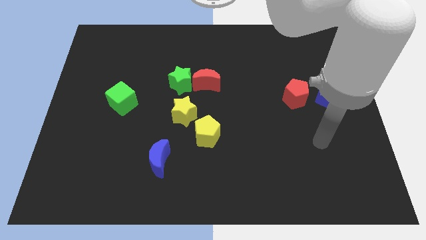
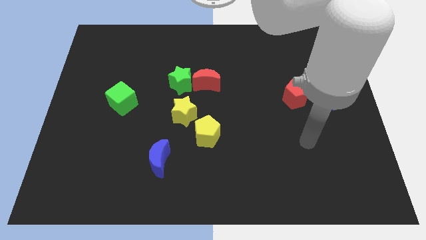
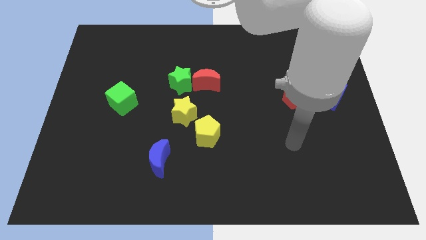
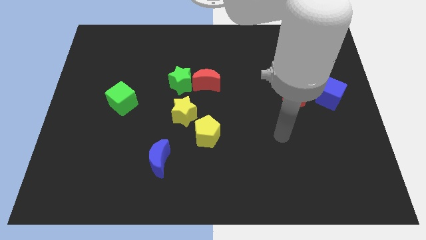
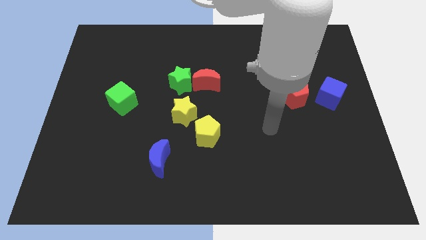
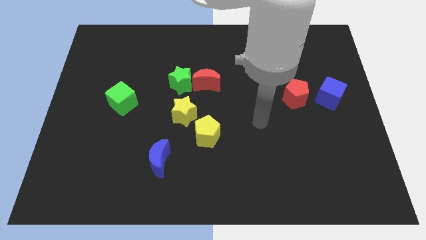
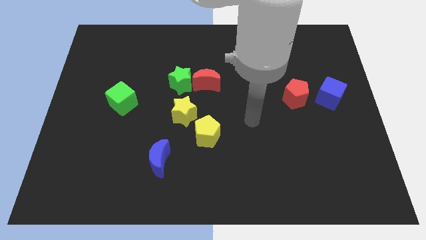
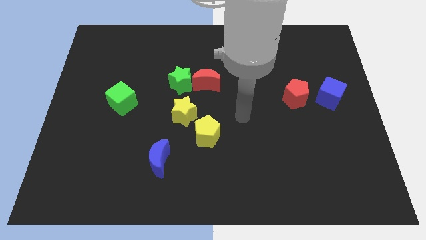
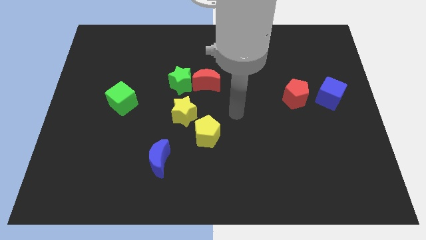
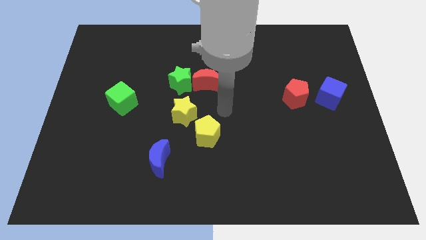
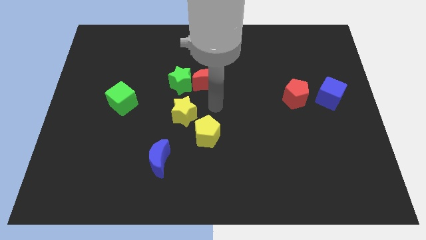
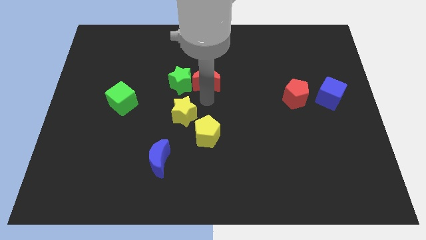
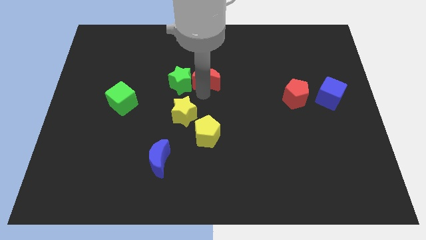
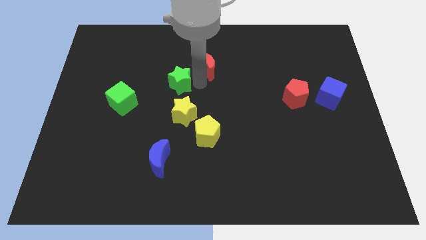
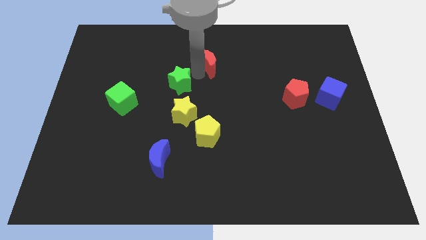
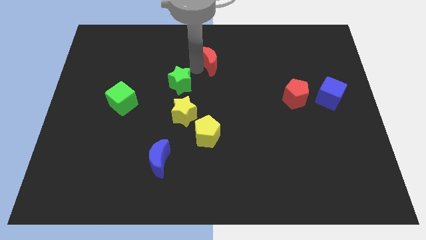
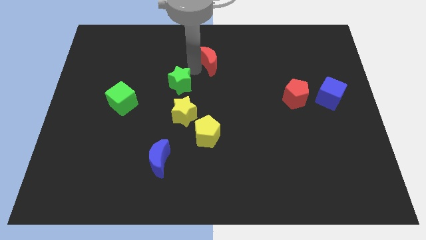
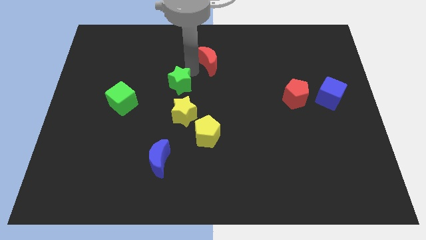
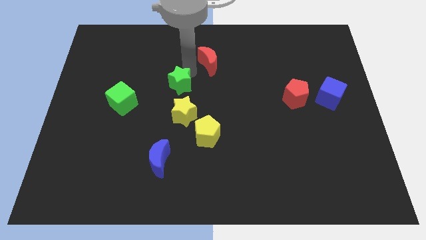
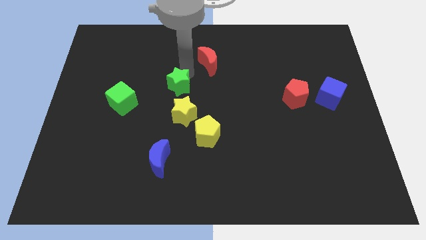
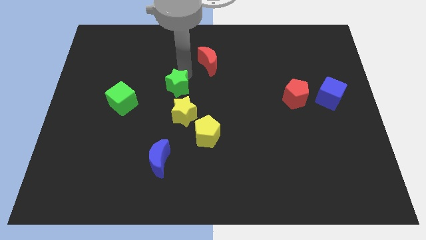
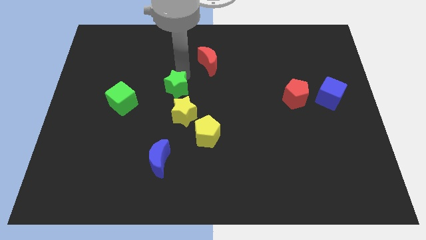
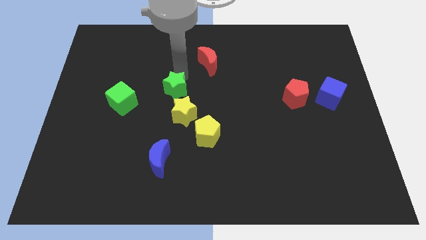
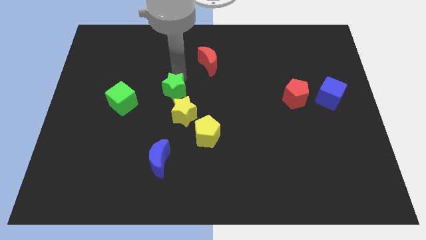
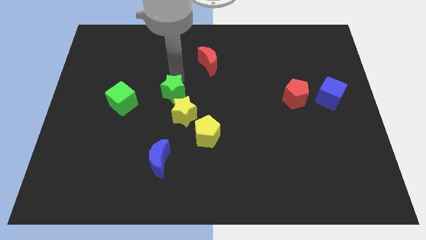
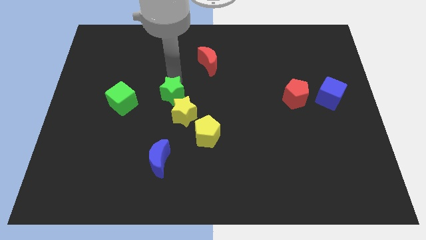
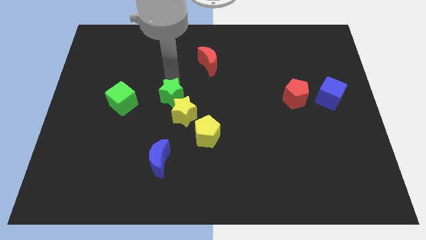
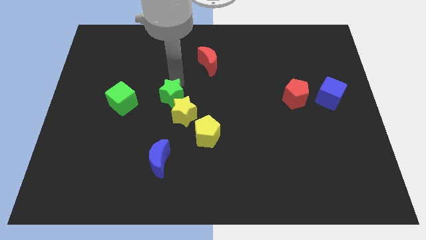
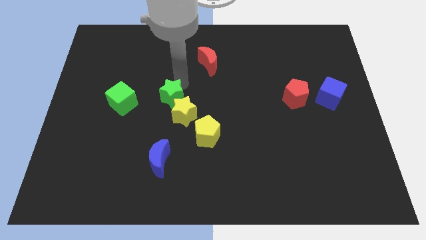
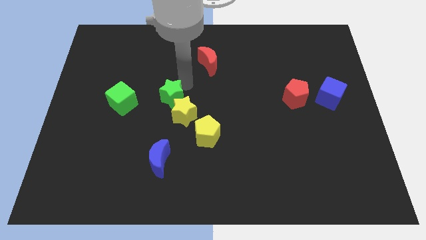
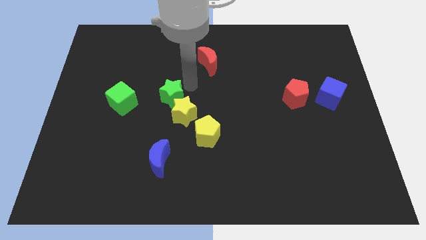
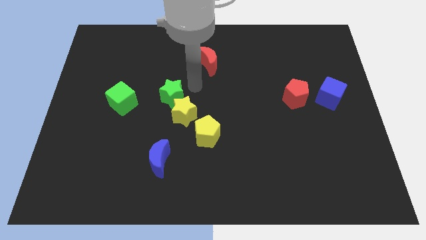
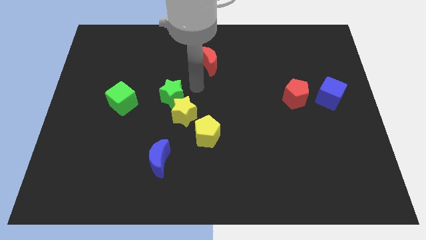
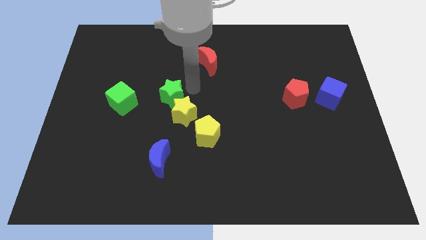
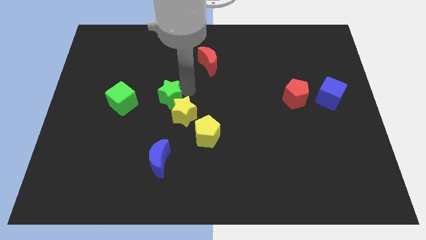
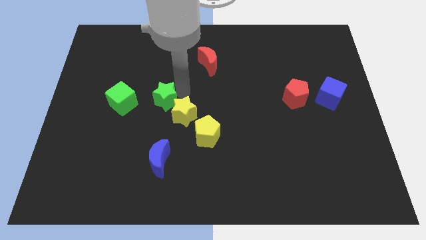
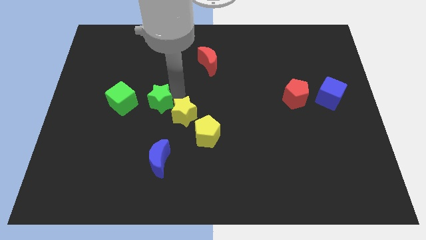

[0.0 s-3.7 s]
slide the green star slightly diagonally downwards and left

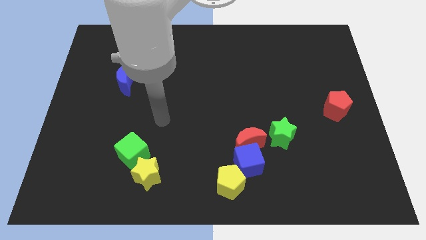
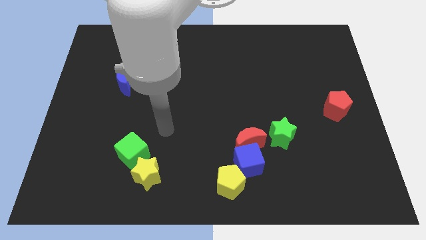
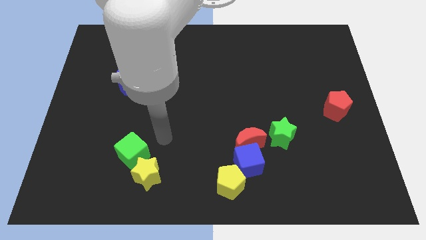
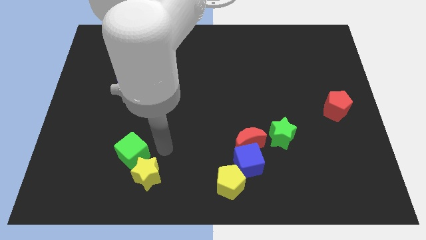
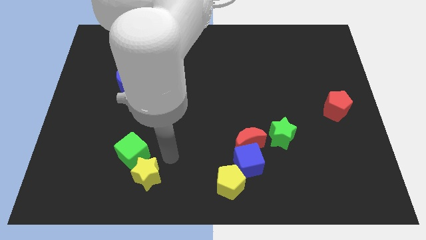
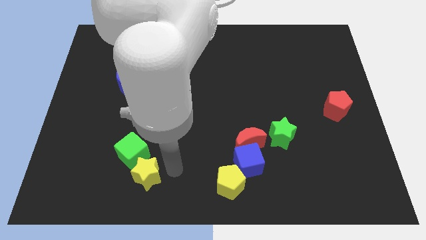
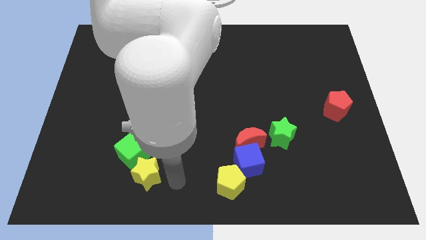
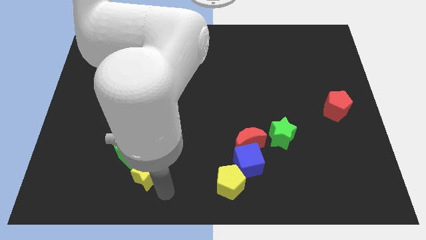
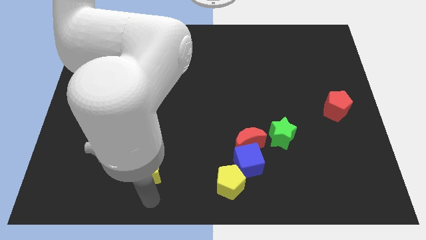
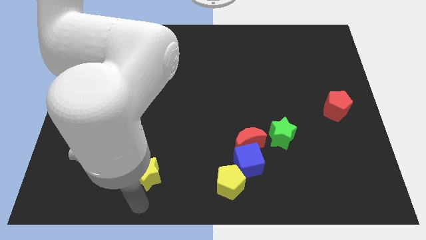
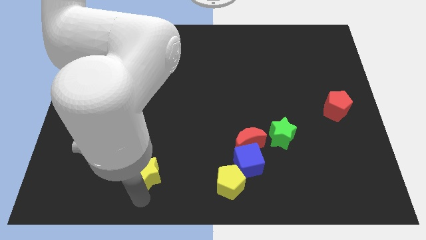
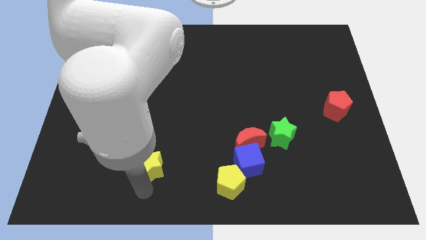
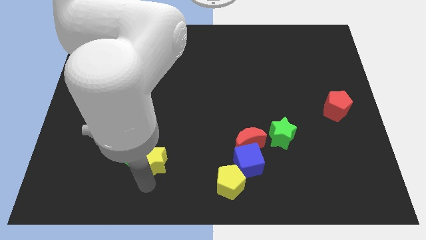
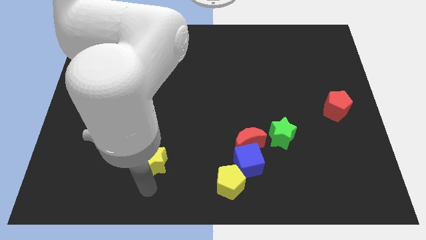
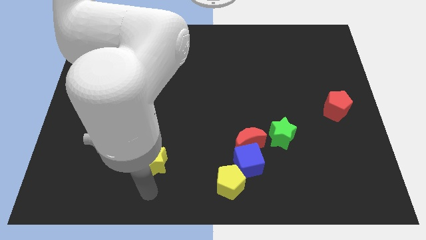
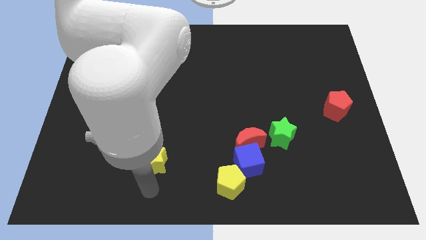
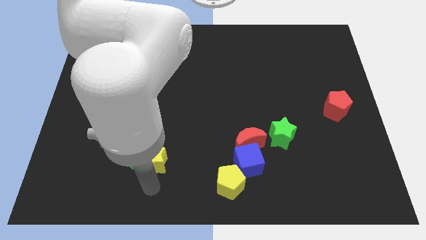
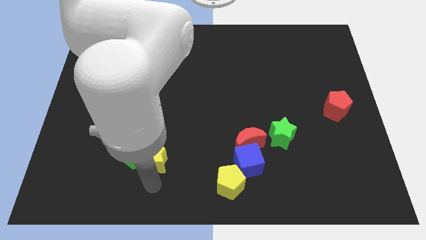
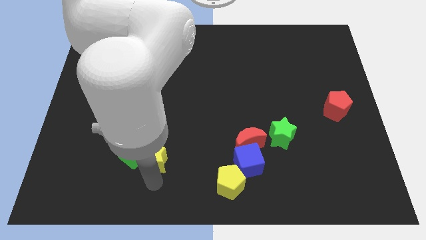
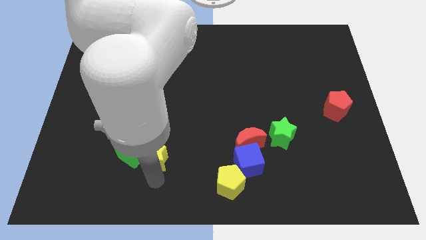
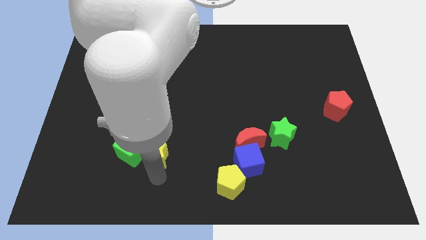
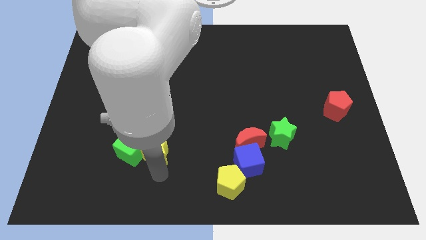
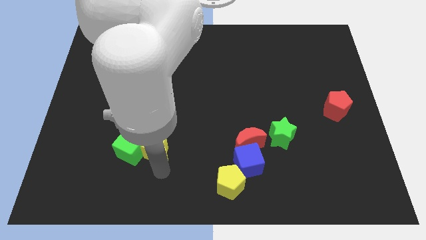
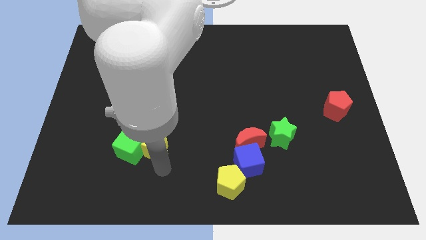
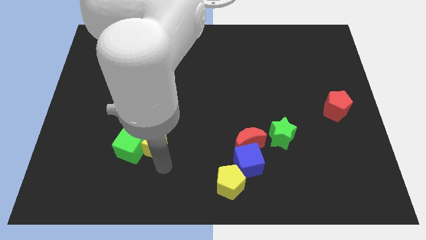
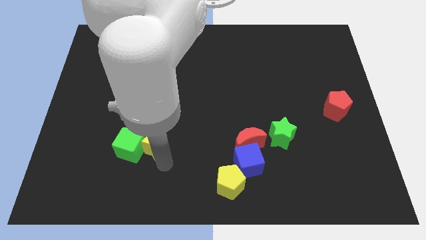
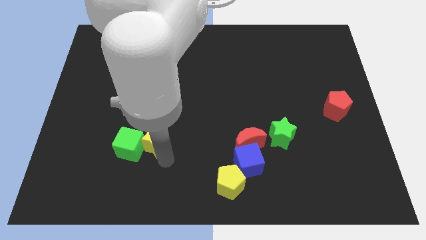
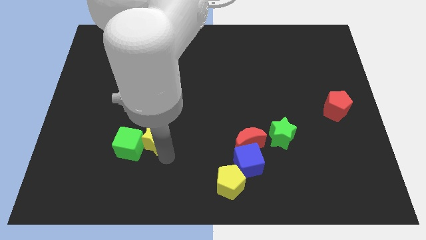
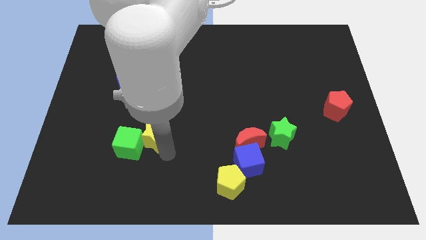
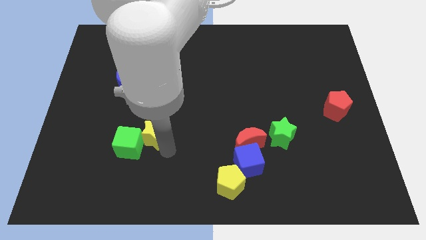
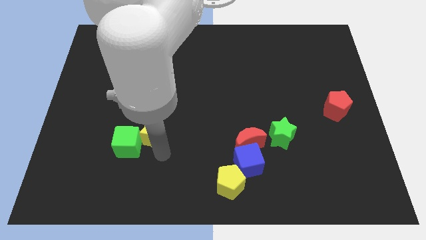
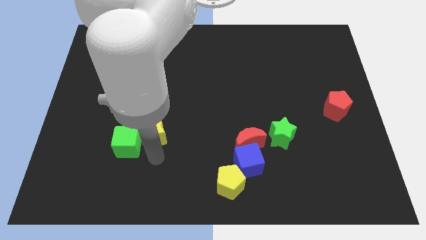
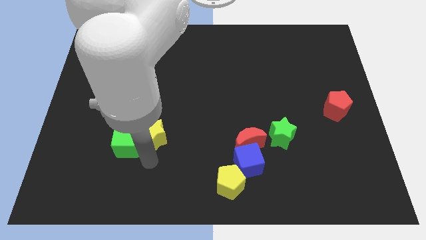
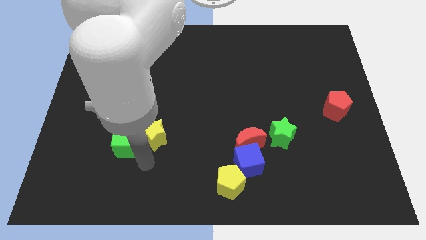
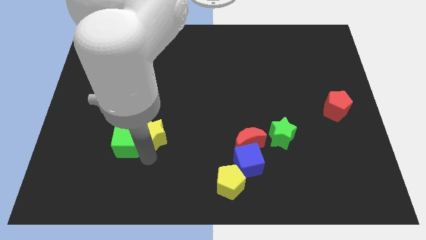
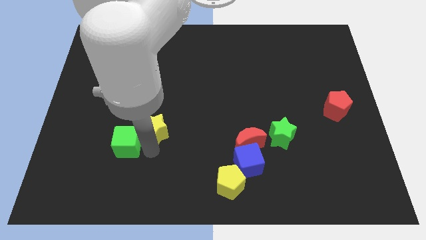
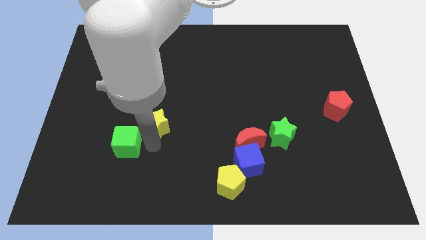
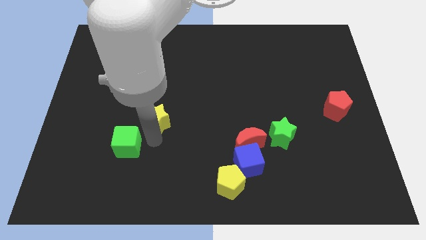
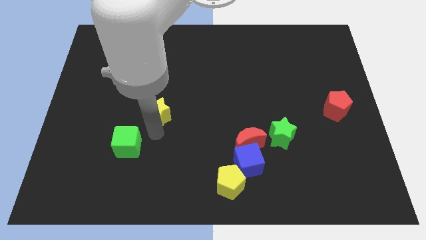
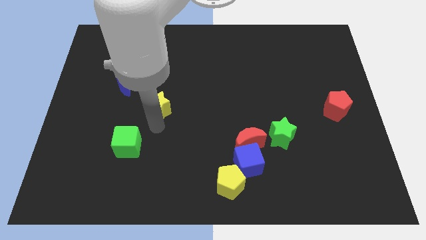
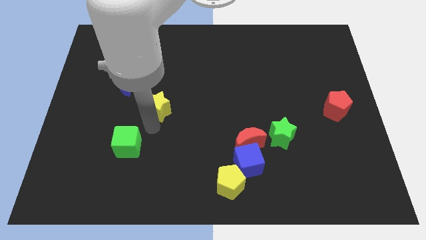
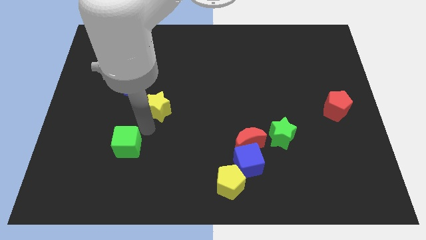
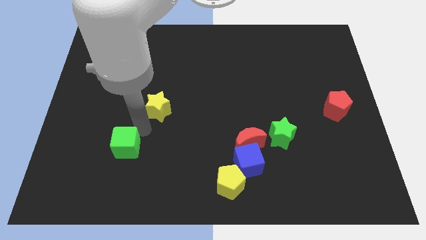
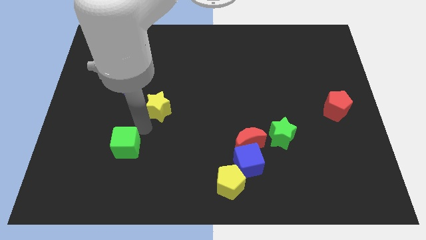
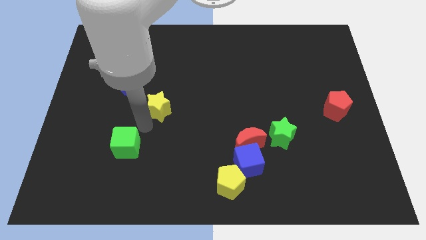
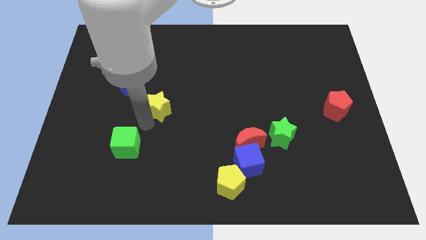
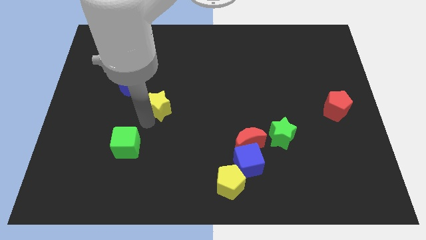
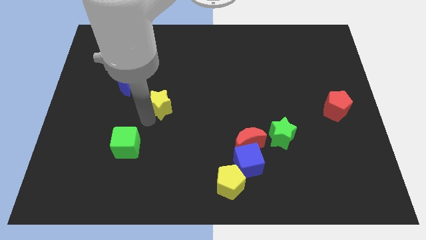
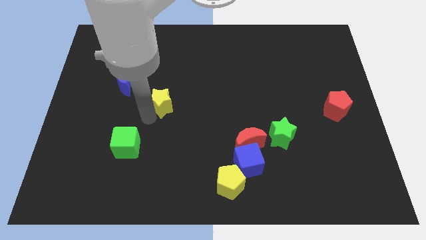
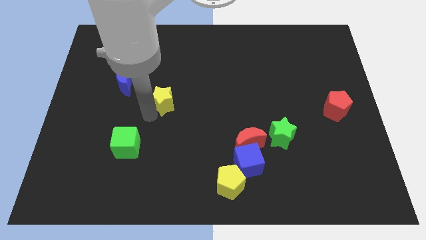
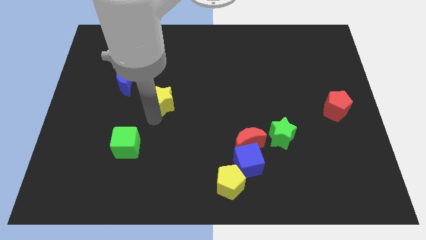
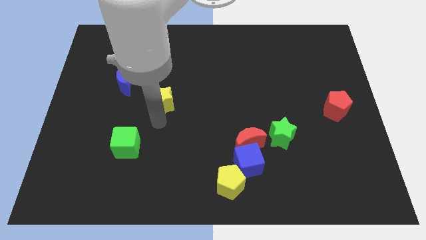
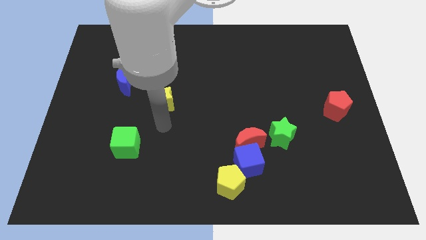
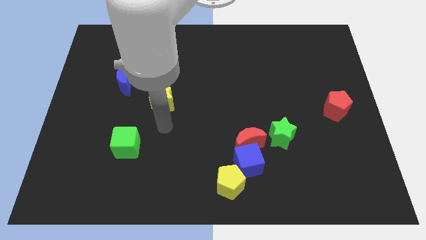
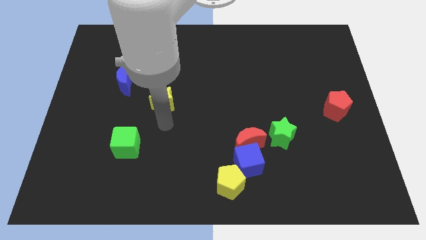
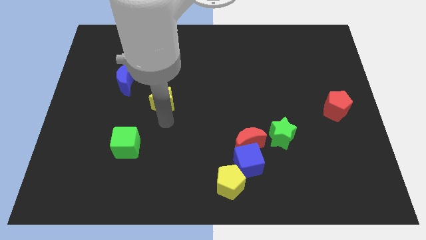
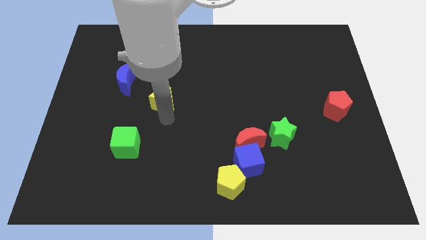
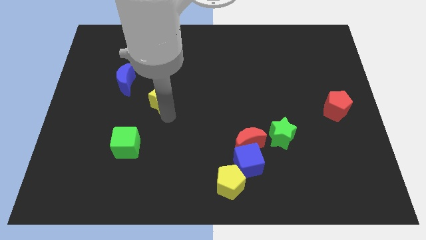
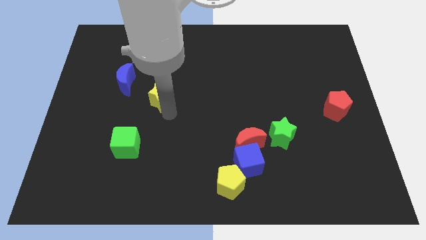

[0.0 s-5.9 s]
slide the yellow star up
